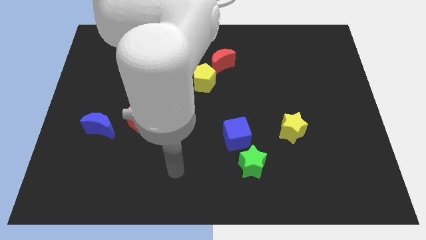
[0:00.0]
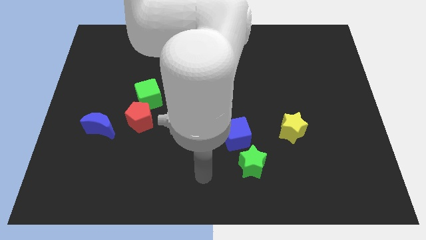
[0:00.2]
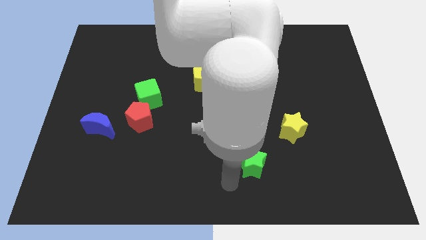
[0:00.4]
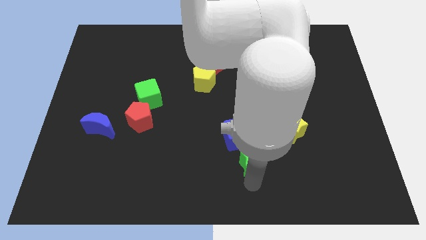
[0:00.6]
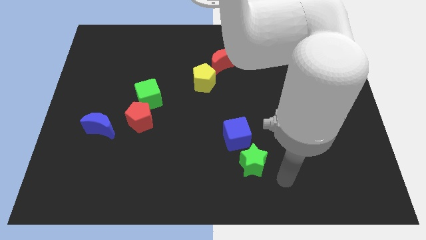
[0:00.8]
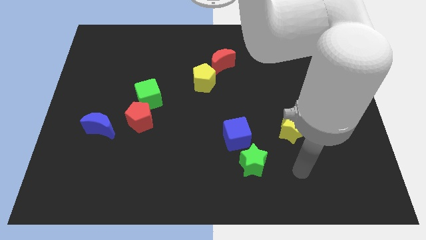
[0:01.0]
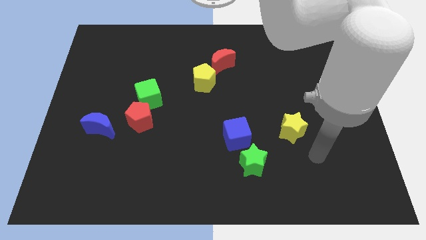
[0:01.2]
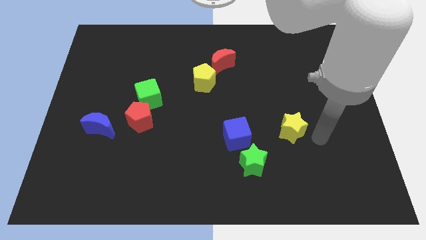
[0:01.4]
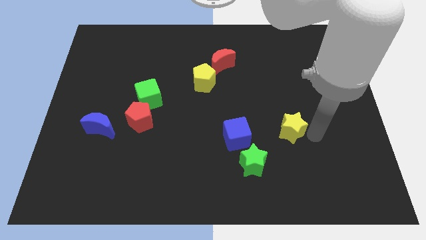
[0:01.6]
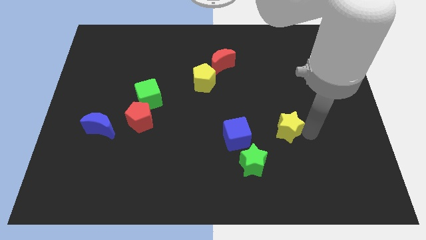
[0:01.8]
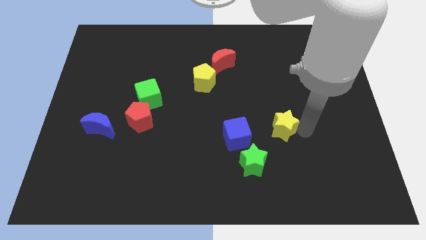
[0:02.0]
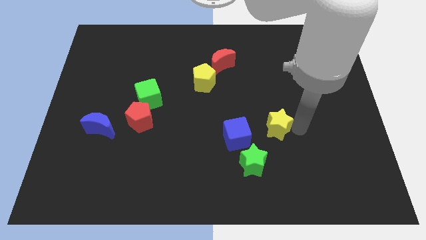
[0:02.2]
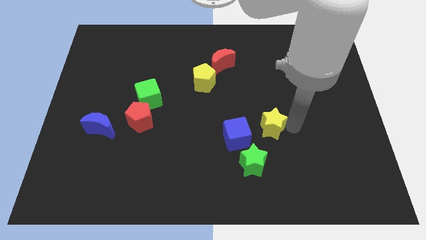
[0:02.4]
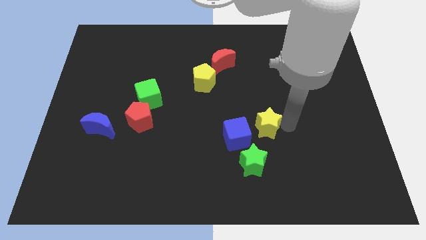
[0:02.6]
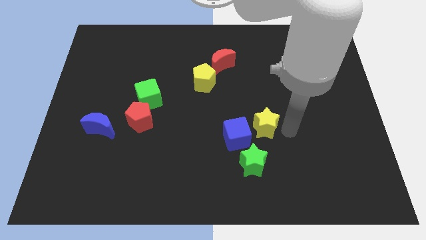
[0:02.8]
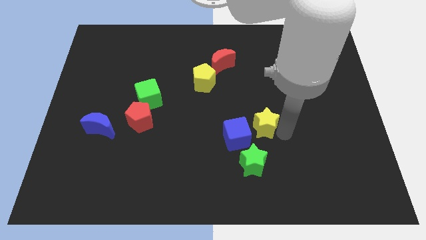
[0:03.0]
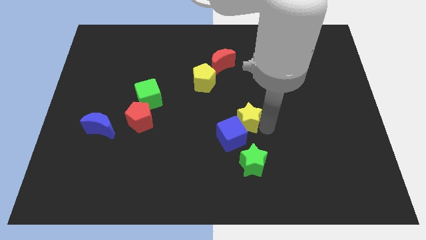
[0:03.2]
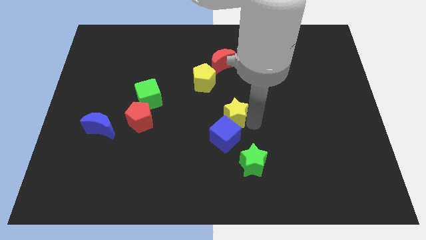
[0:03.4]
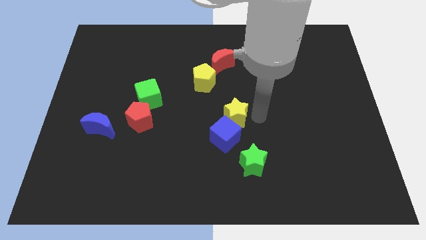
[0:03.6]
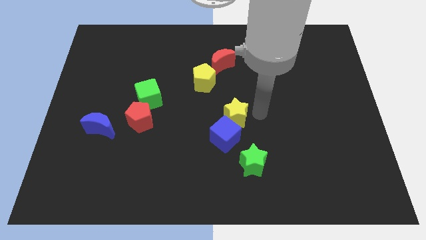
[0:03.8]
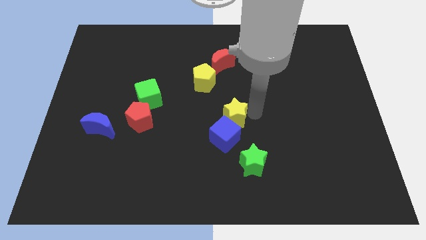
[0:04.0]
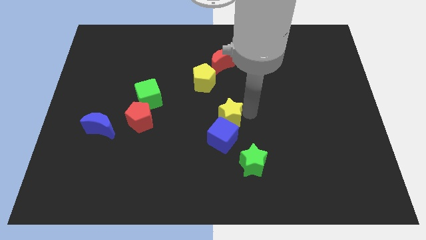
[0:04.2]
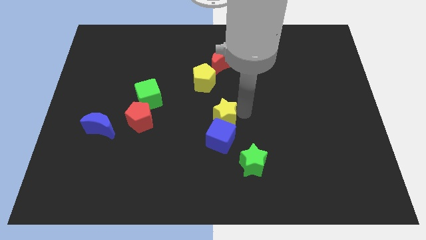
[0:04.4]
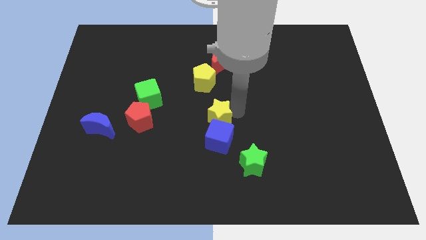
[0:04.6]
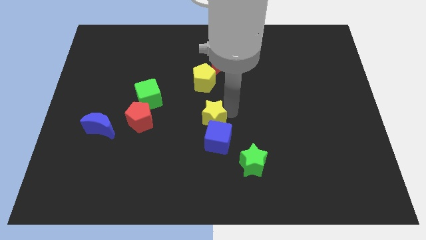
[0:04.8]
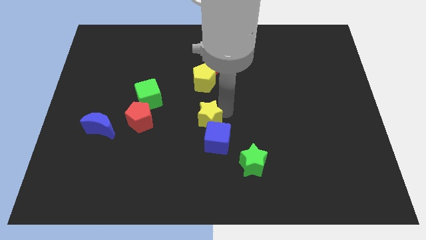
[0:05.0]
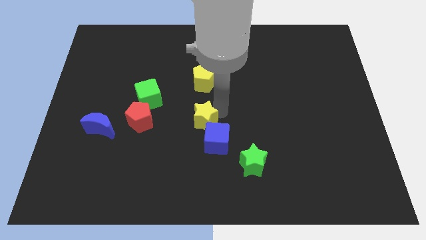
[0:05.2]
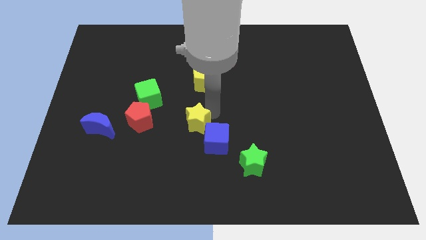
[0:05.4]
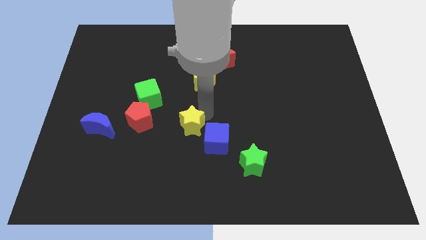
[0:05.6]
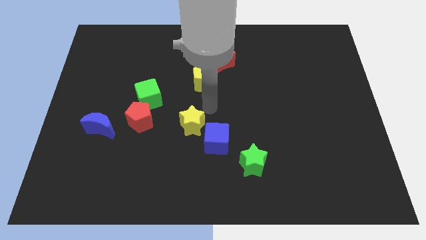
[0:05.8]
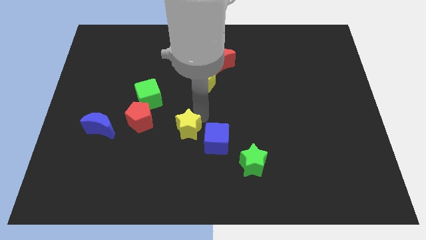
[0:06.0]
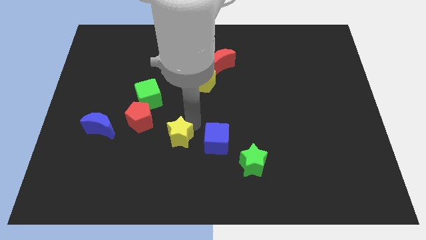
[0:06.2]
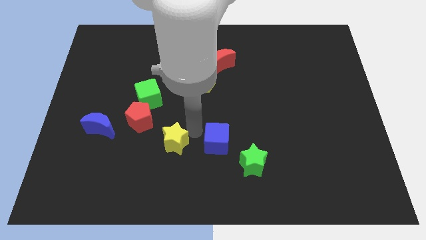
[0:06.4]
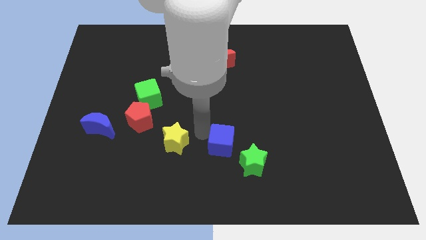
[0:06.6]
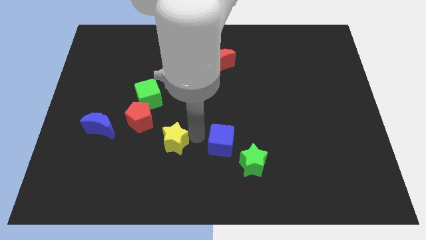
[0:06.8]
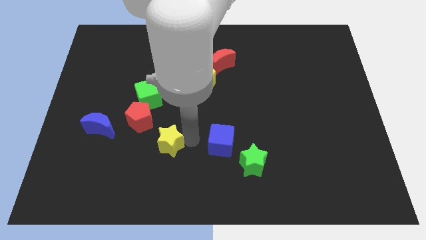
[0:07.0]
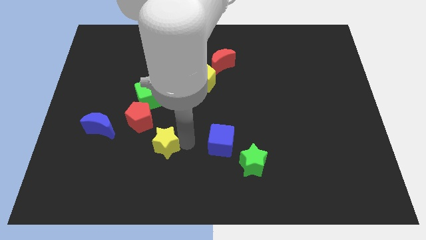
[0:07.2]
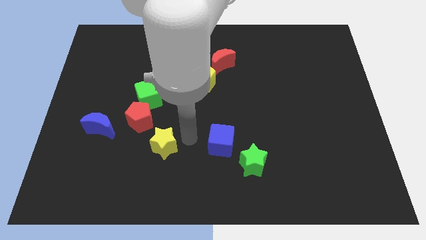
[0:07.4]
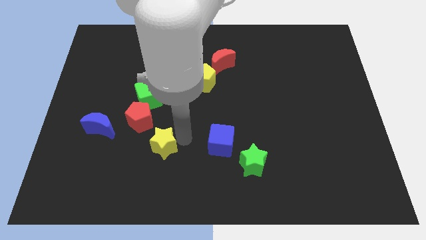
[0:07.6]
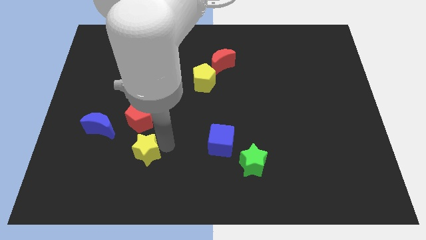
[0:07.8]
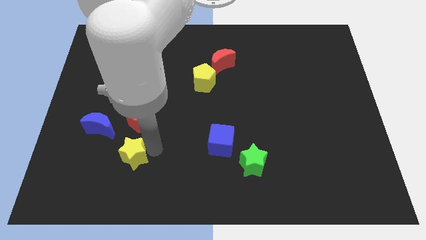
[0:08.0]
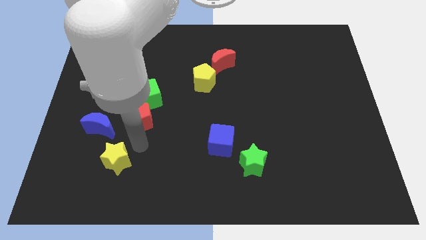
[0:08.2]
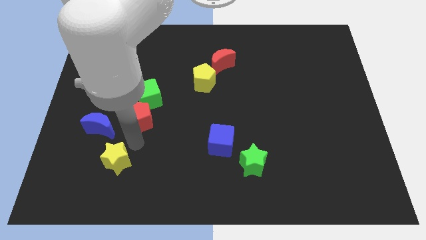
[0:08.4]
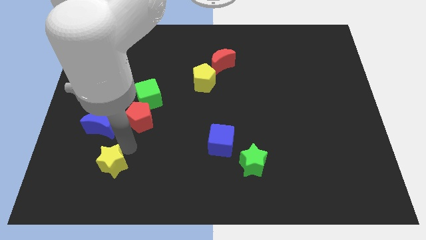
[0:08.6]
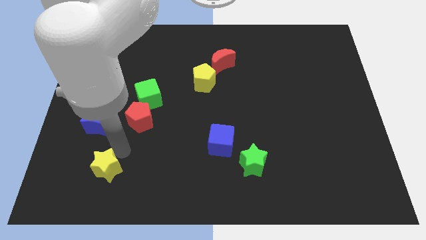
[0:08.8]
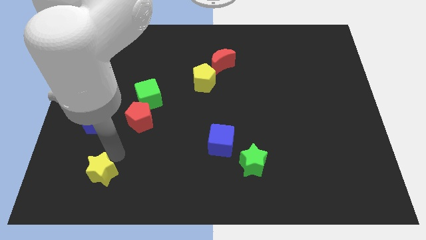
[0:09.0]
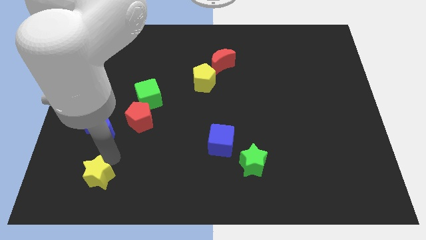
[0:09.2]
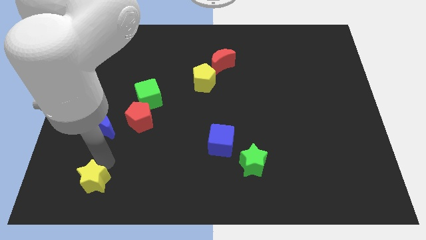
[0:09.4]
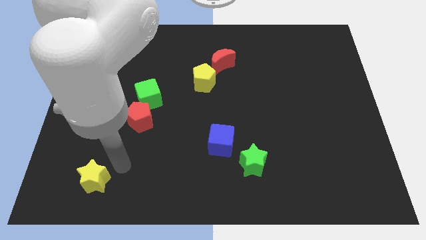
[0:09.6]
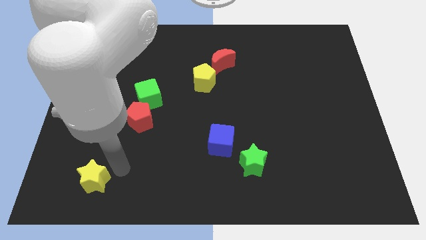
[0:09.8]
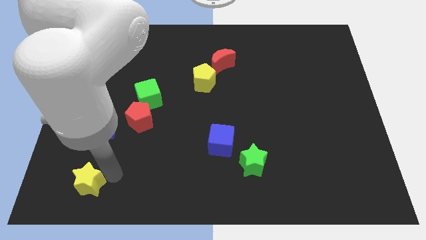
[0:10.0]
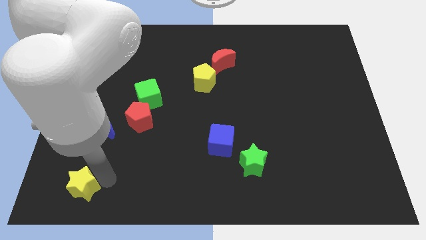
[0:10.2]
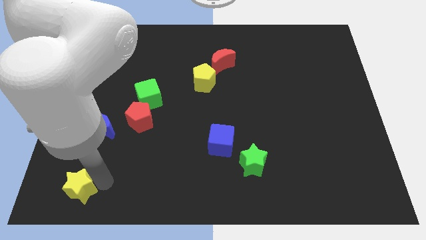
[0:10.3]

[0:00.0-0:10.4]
move the yellow star to the lower left corner

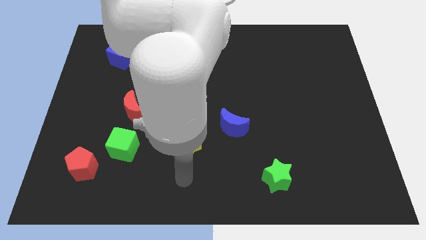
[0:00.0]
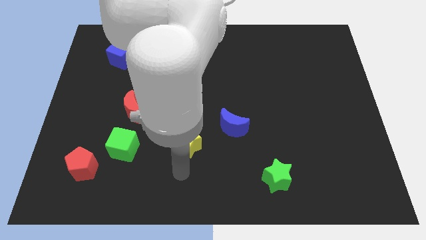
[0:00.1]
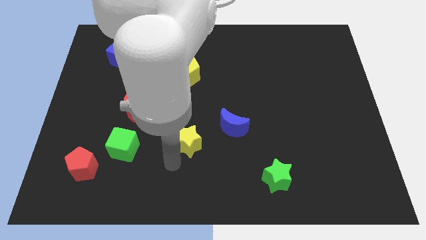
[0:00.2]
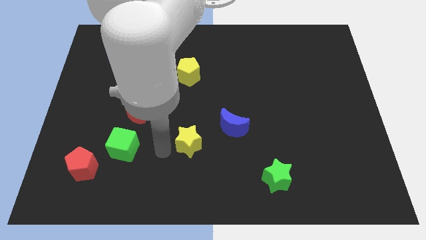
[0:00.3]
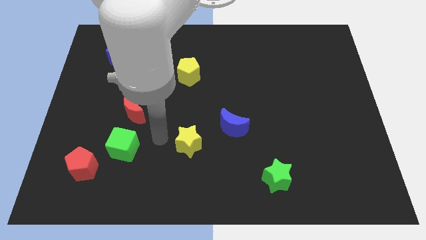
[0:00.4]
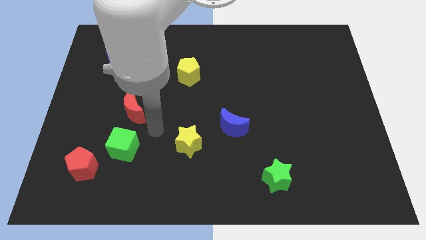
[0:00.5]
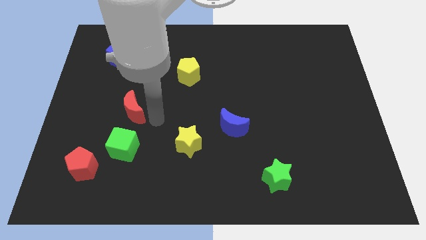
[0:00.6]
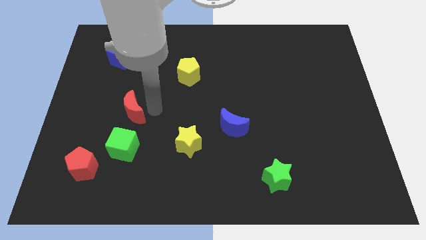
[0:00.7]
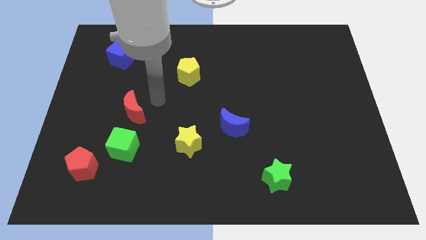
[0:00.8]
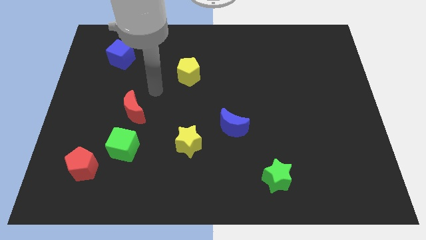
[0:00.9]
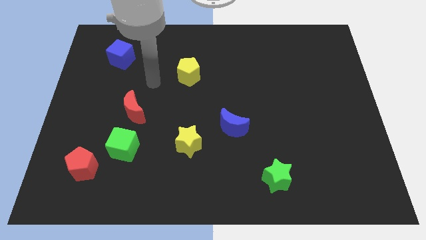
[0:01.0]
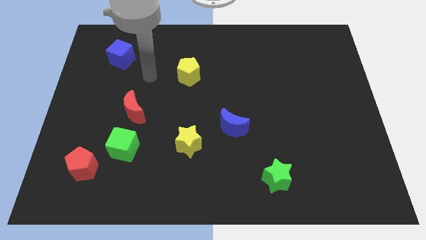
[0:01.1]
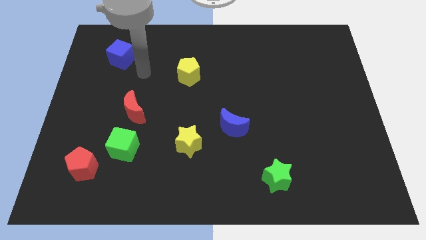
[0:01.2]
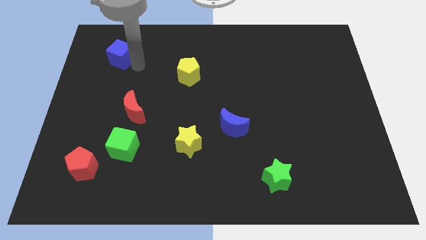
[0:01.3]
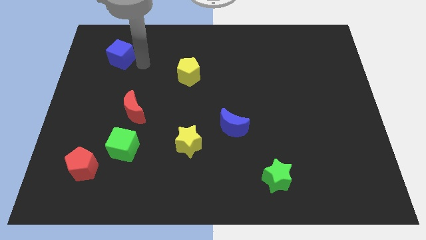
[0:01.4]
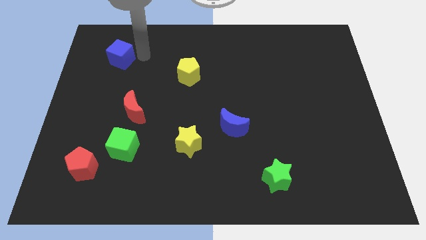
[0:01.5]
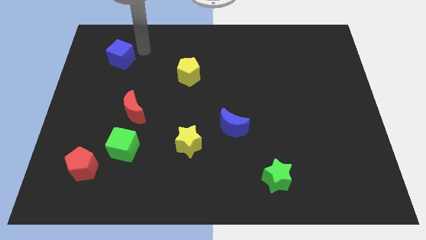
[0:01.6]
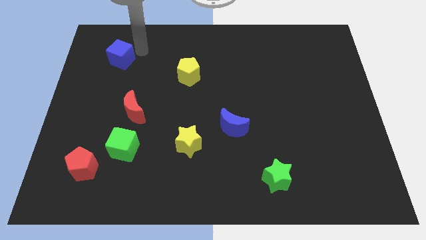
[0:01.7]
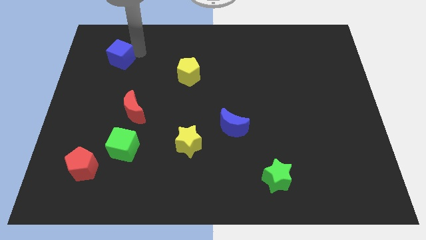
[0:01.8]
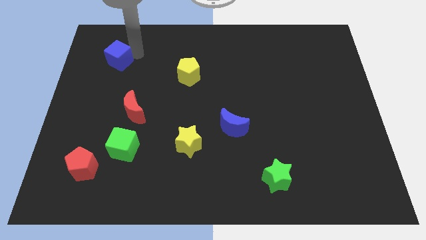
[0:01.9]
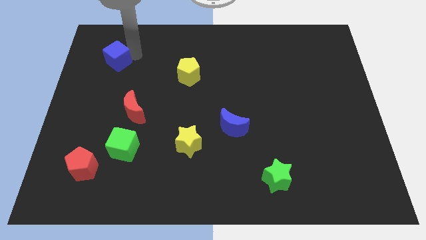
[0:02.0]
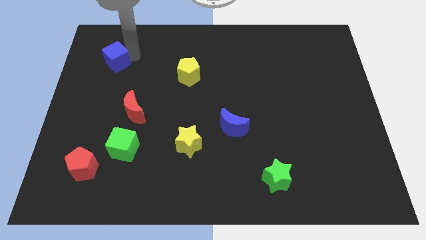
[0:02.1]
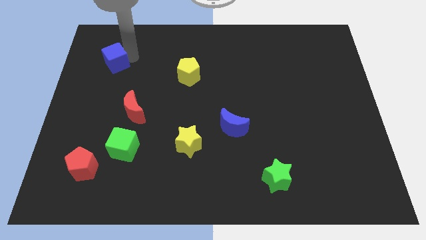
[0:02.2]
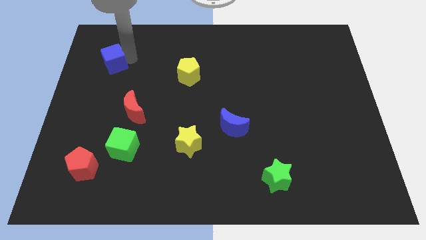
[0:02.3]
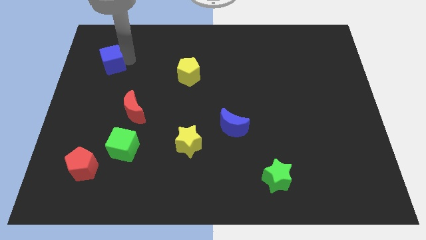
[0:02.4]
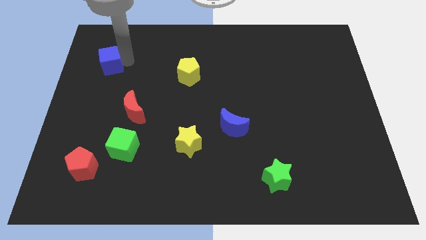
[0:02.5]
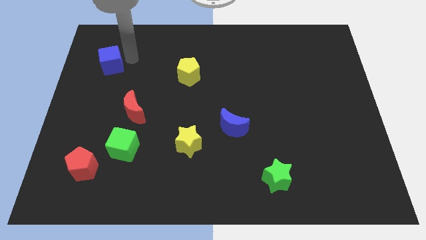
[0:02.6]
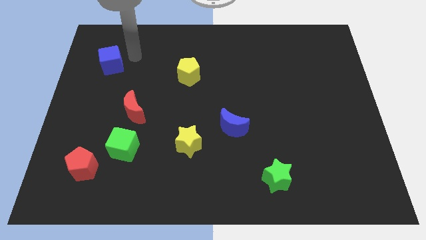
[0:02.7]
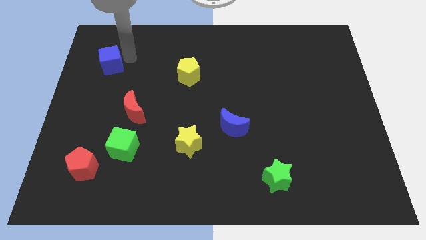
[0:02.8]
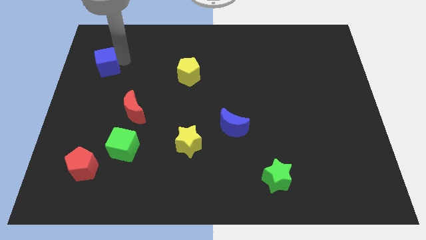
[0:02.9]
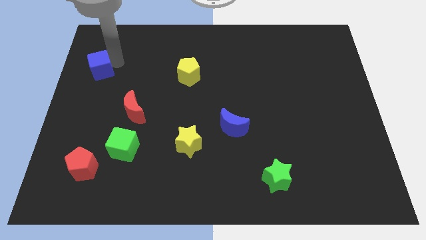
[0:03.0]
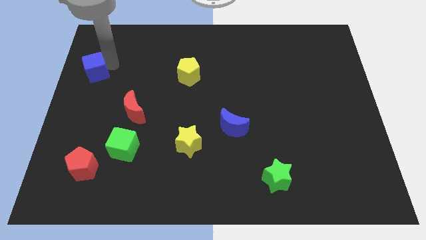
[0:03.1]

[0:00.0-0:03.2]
put the blue cube to the center left
